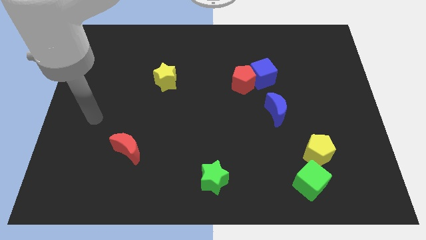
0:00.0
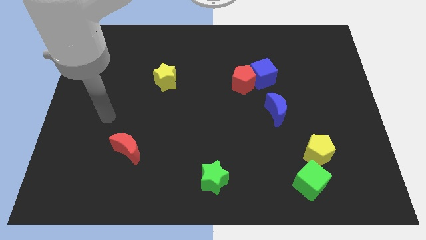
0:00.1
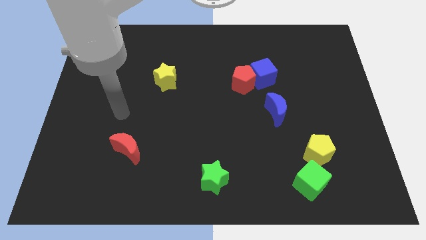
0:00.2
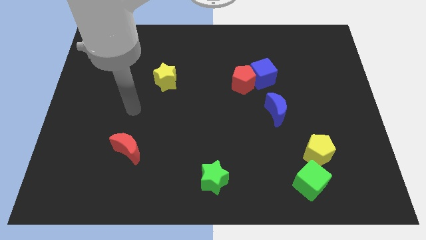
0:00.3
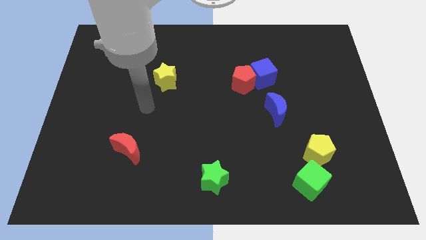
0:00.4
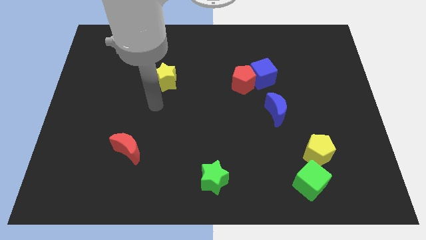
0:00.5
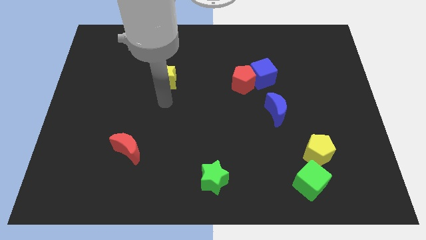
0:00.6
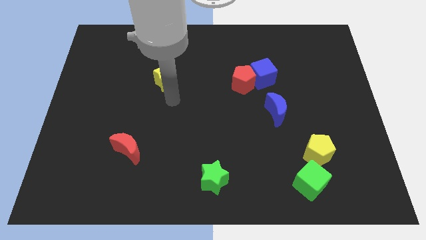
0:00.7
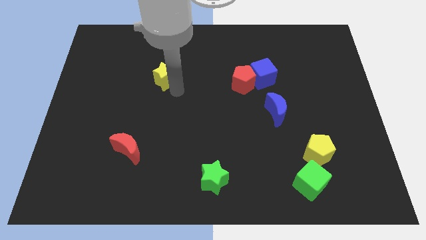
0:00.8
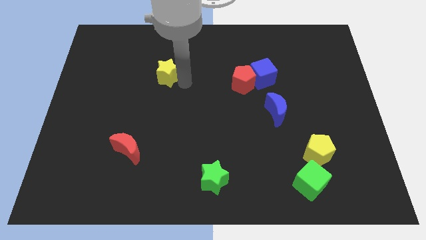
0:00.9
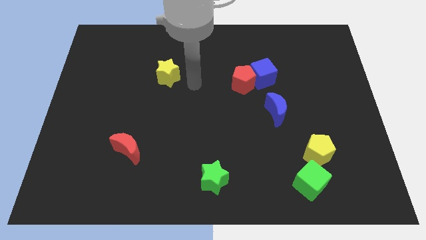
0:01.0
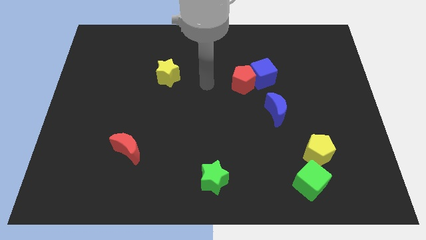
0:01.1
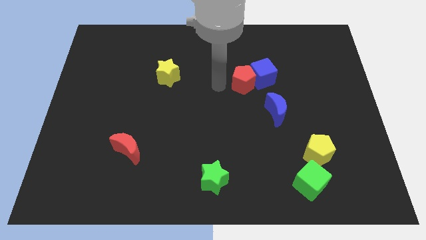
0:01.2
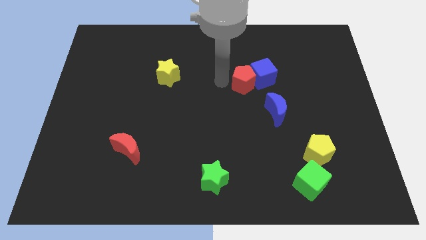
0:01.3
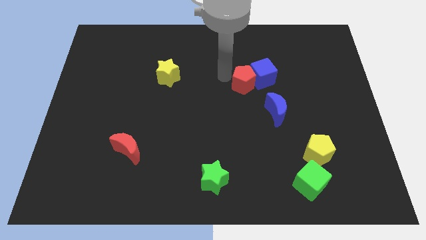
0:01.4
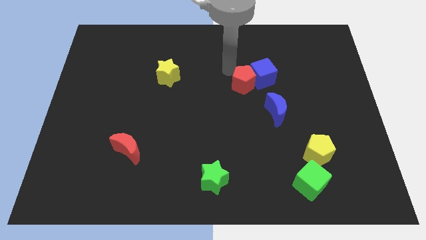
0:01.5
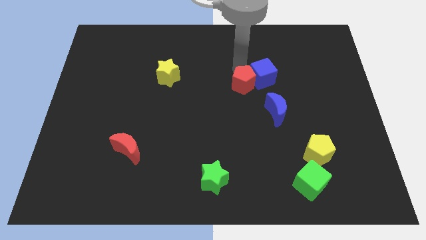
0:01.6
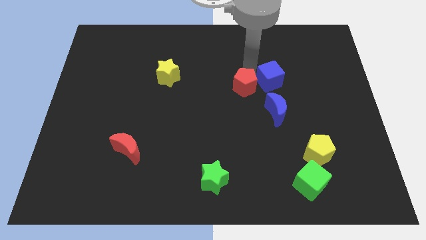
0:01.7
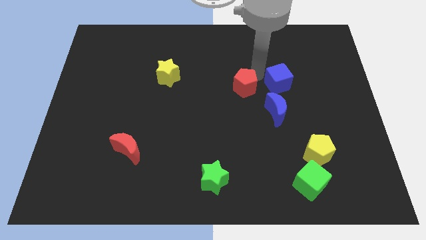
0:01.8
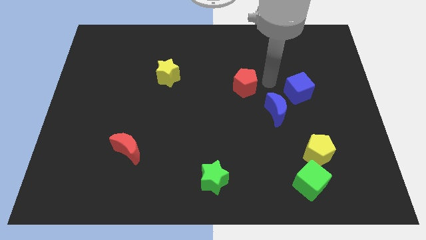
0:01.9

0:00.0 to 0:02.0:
move the red pentagon away from the blue cube

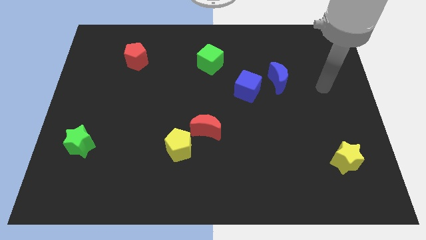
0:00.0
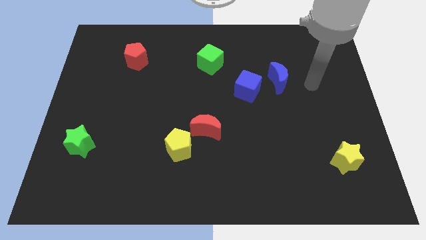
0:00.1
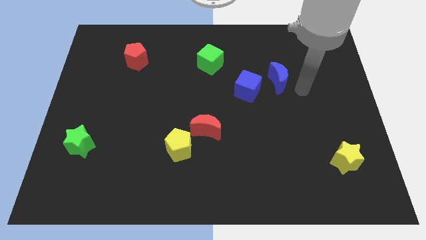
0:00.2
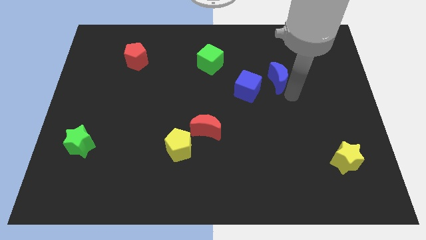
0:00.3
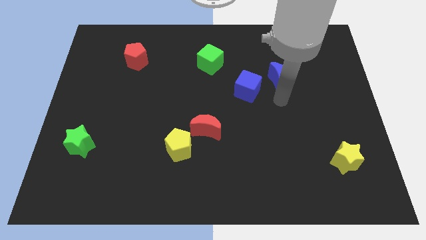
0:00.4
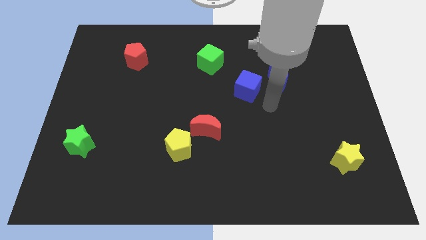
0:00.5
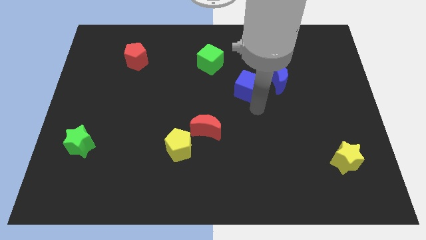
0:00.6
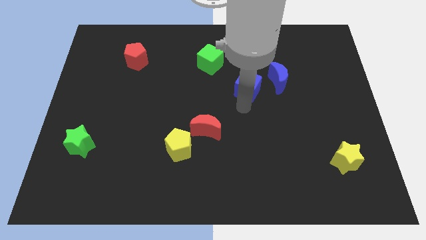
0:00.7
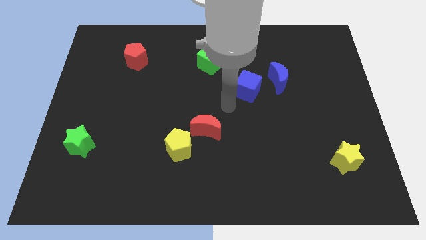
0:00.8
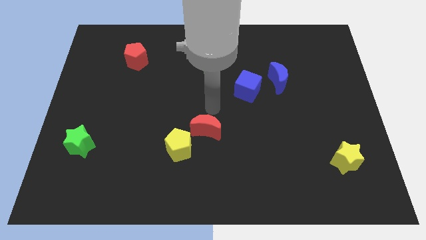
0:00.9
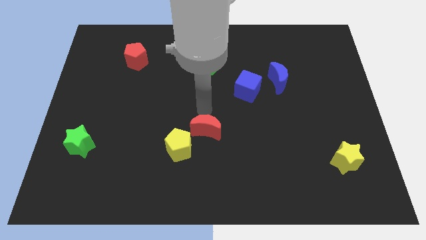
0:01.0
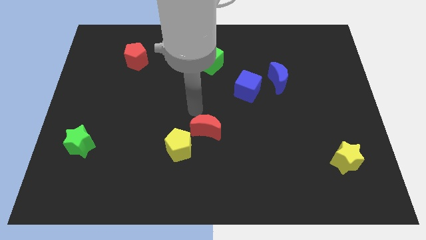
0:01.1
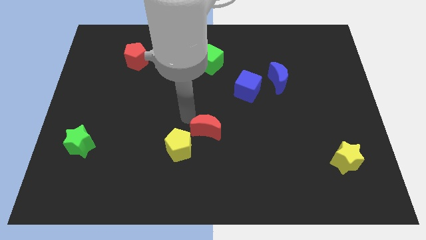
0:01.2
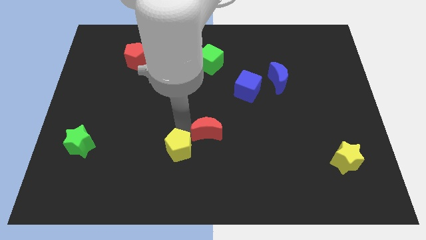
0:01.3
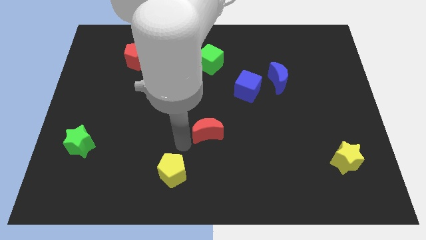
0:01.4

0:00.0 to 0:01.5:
pull the red moon apart from the yellow pentagon

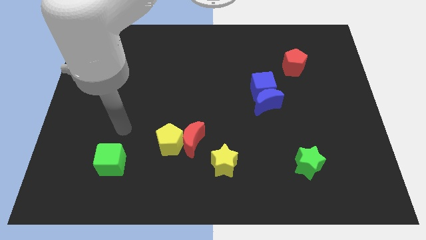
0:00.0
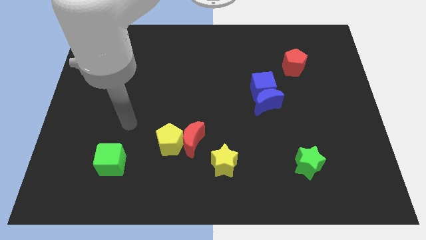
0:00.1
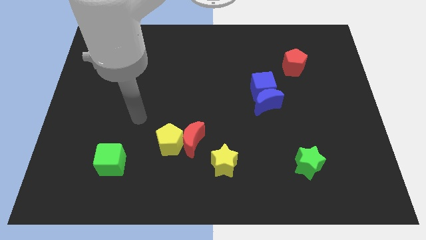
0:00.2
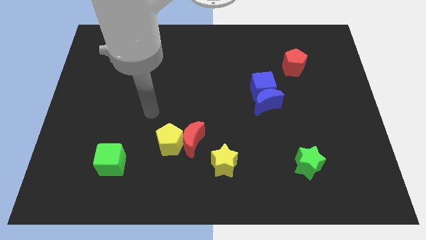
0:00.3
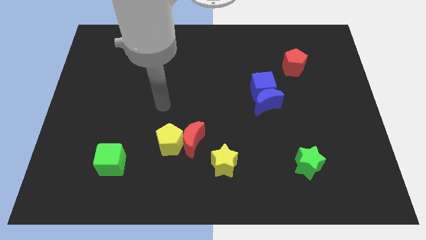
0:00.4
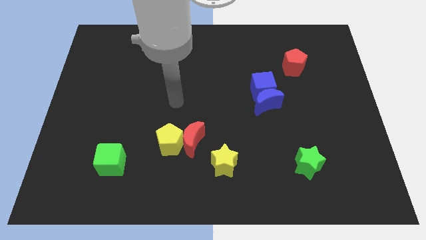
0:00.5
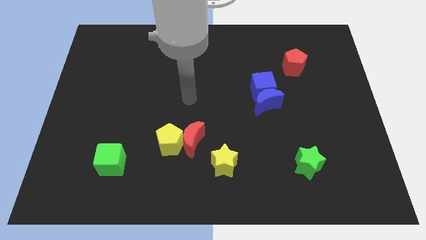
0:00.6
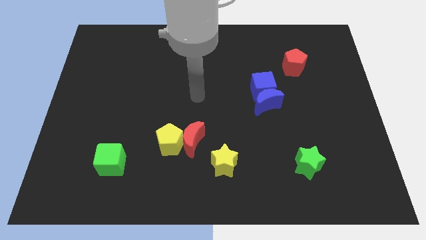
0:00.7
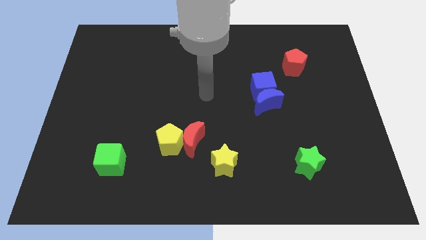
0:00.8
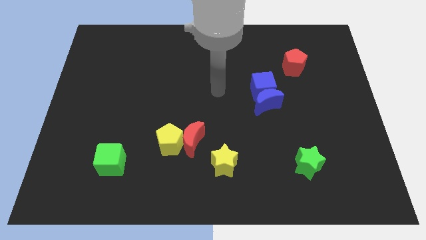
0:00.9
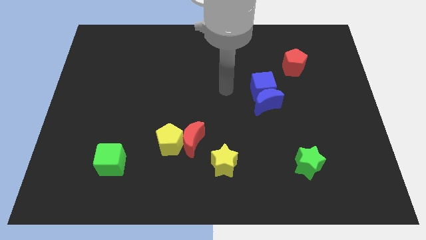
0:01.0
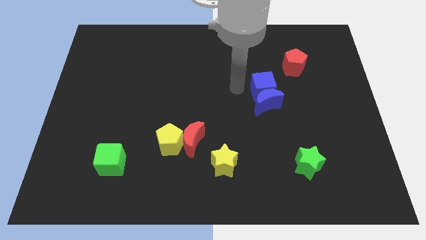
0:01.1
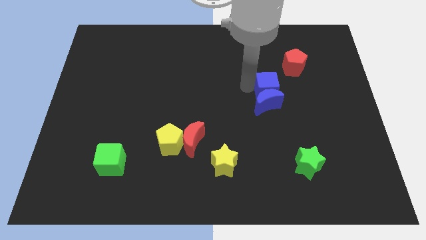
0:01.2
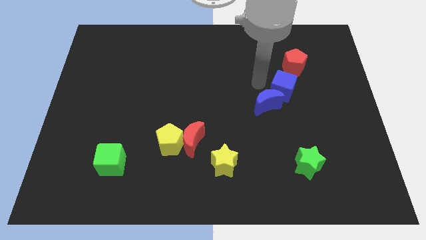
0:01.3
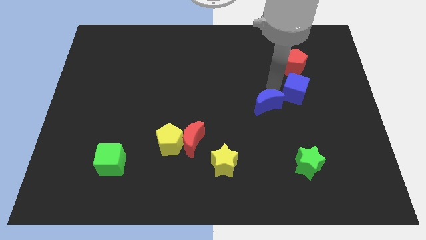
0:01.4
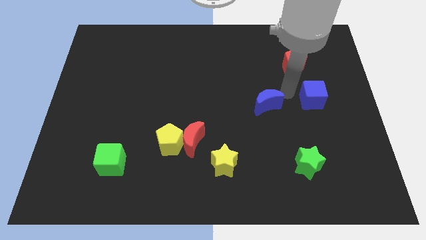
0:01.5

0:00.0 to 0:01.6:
move the blue moon away from the blue cube

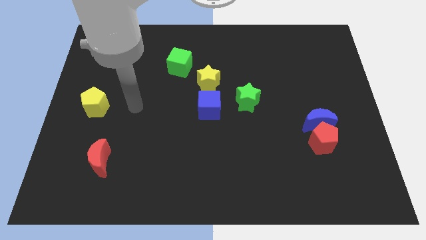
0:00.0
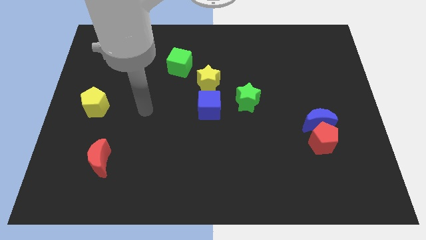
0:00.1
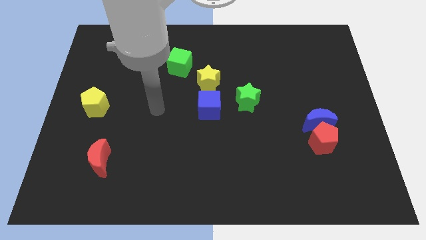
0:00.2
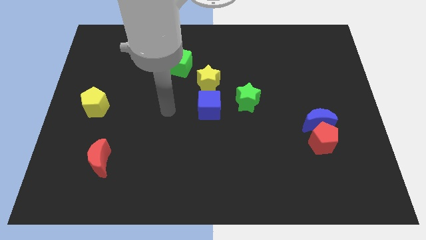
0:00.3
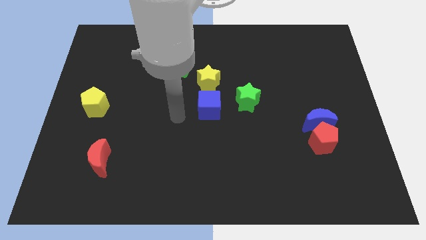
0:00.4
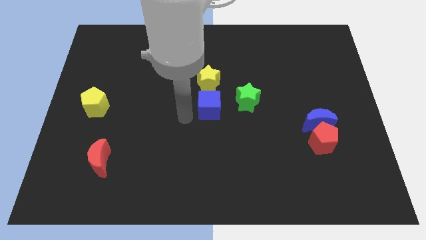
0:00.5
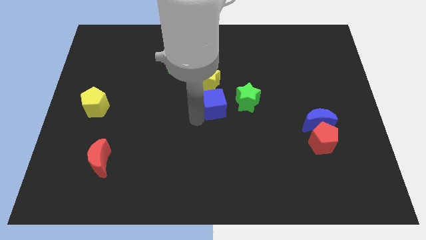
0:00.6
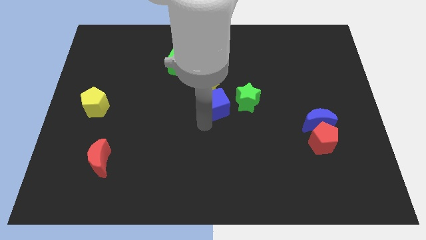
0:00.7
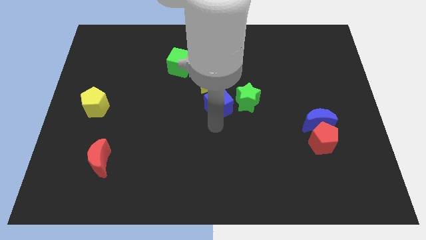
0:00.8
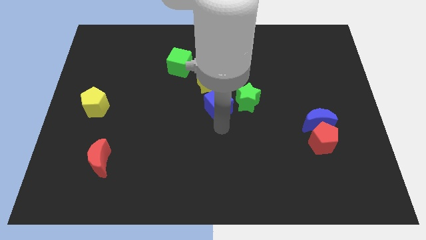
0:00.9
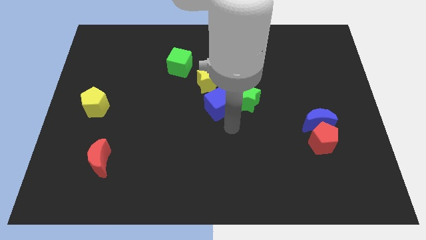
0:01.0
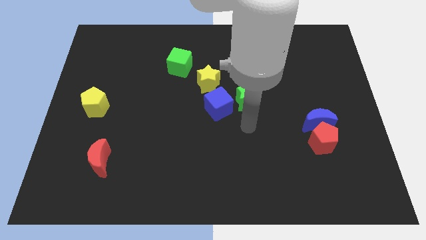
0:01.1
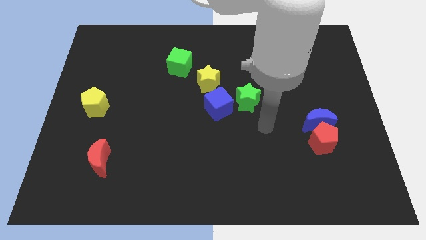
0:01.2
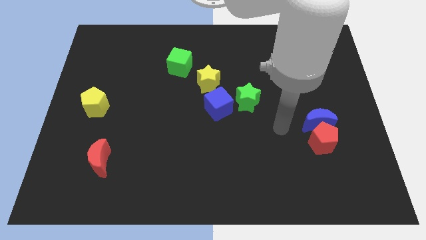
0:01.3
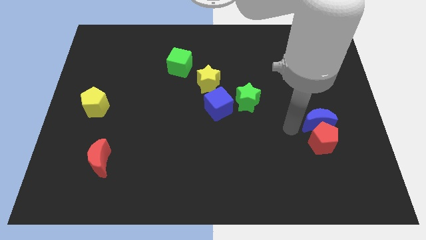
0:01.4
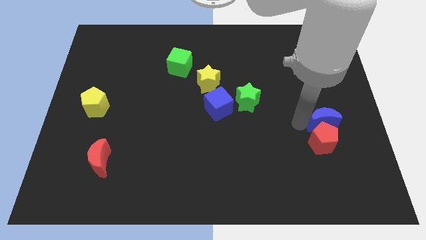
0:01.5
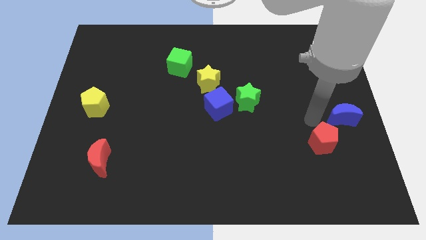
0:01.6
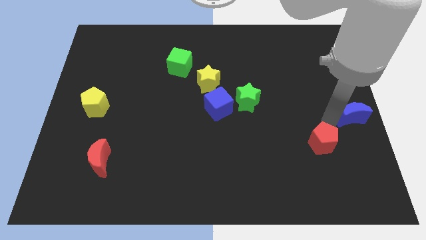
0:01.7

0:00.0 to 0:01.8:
pull the red pentagon apart from the blue moon

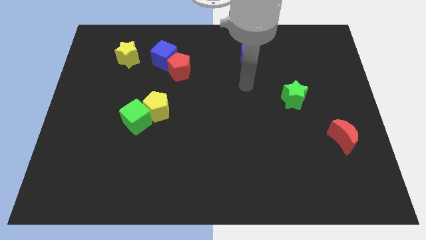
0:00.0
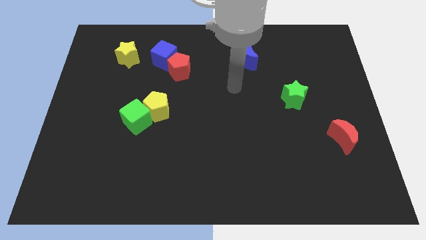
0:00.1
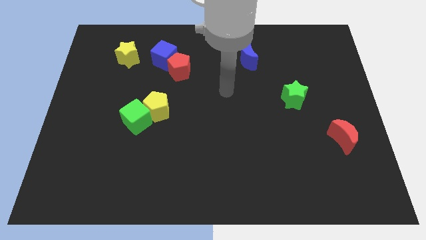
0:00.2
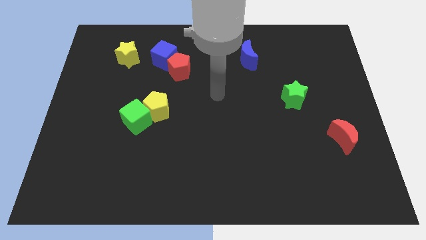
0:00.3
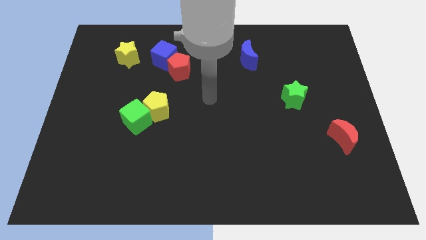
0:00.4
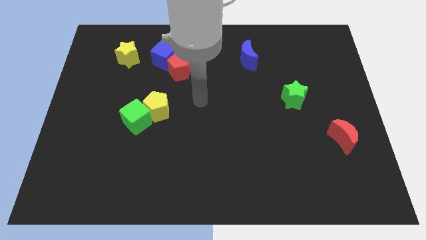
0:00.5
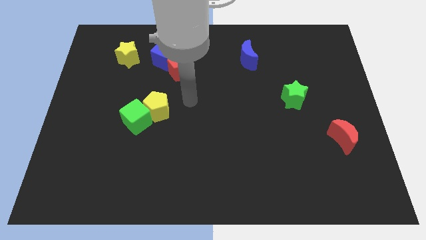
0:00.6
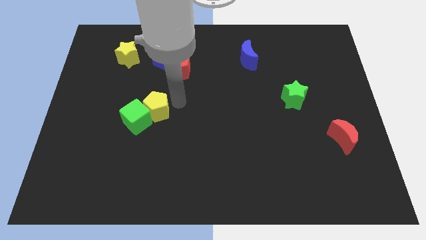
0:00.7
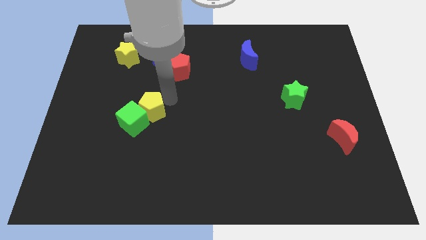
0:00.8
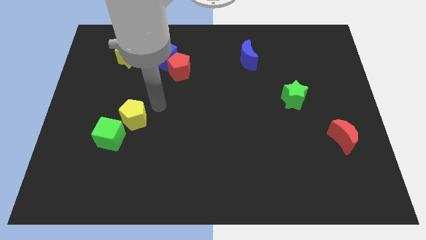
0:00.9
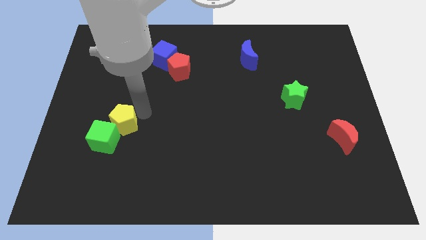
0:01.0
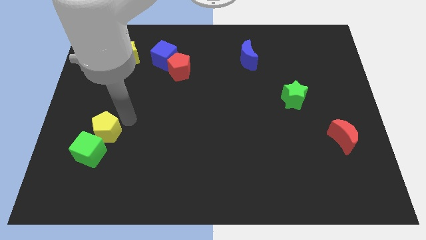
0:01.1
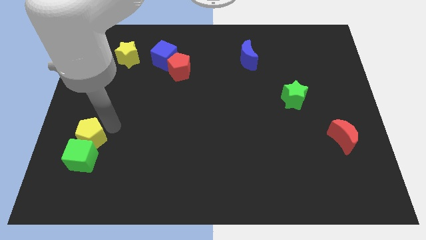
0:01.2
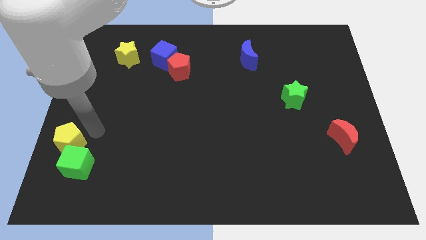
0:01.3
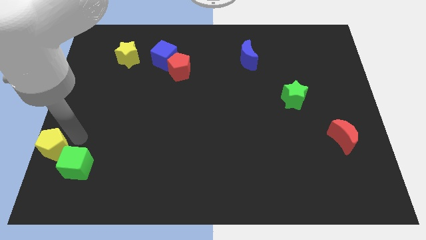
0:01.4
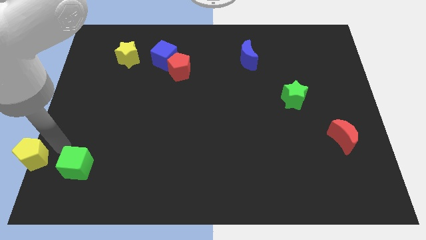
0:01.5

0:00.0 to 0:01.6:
move the green cube away from the yellow pentagon

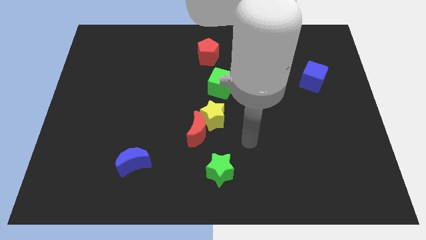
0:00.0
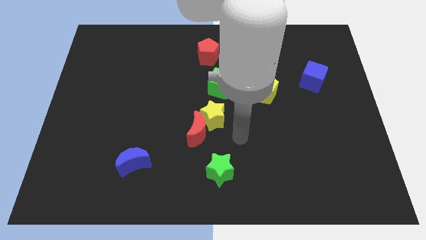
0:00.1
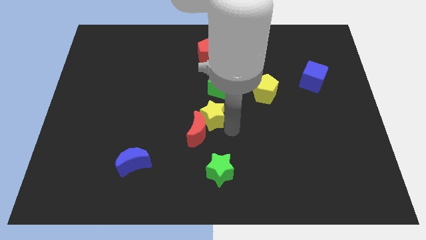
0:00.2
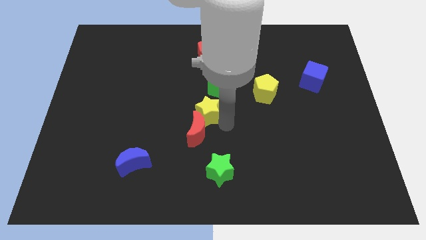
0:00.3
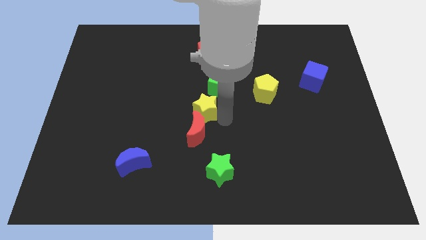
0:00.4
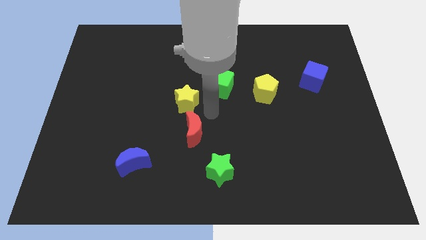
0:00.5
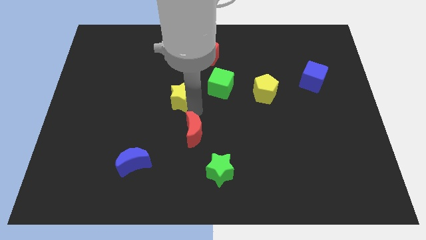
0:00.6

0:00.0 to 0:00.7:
pull the red moon apart from the yellow star
